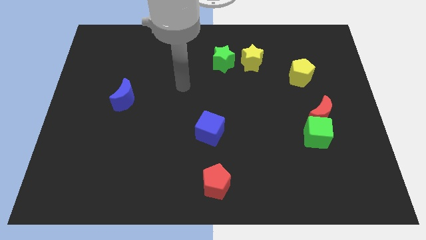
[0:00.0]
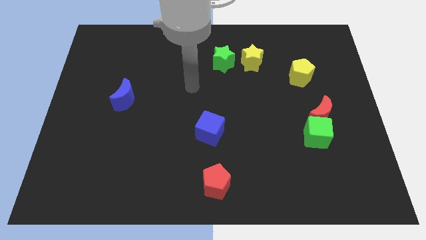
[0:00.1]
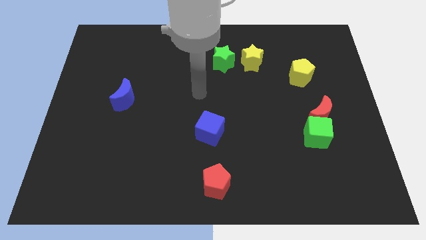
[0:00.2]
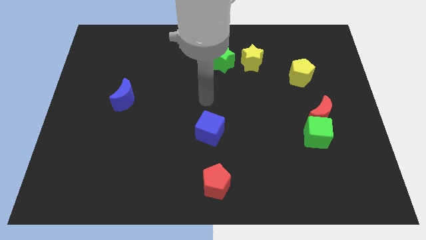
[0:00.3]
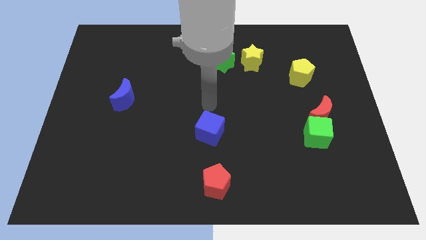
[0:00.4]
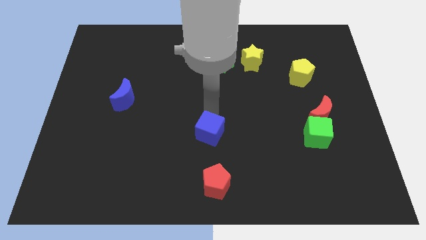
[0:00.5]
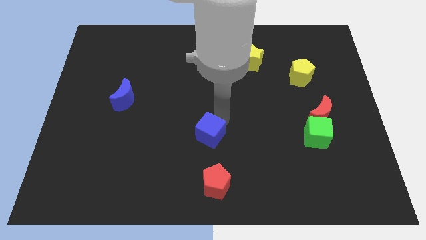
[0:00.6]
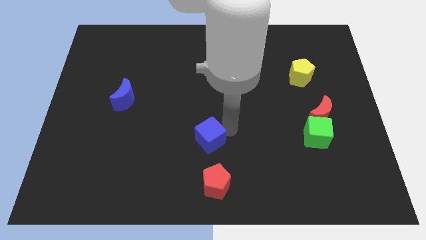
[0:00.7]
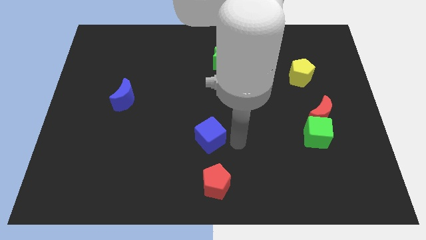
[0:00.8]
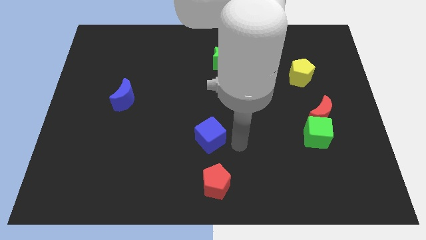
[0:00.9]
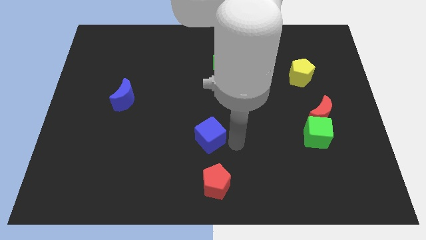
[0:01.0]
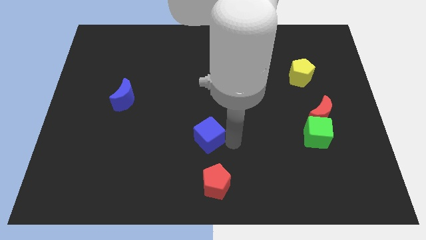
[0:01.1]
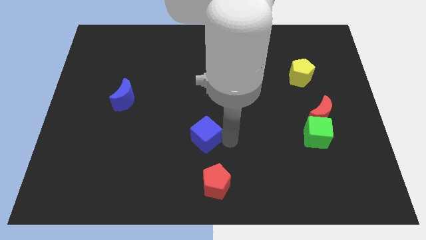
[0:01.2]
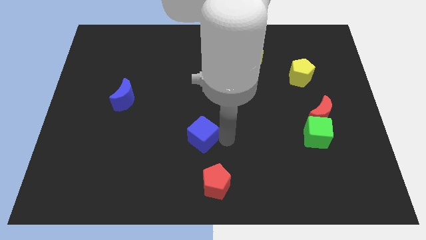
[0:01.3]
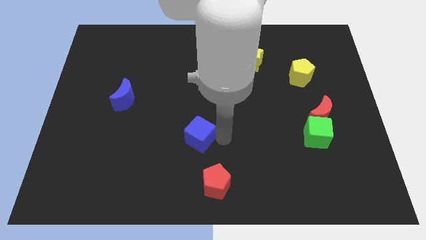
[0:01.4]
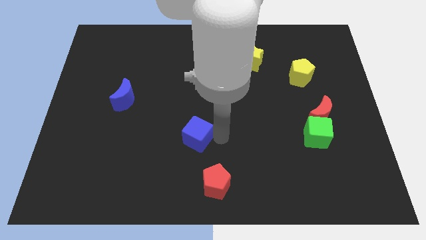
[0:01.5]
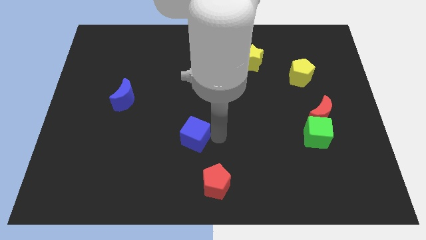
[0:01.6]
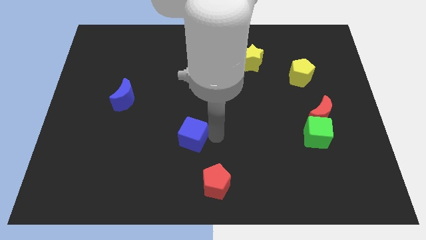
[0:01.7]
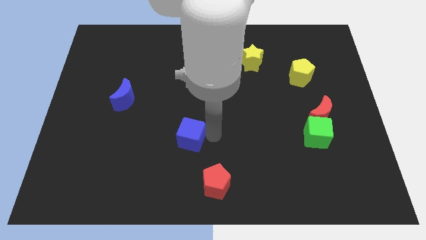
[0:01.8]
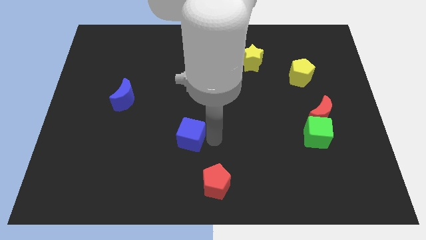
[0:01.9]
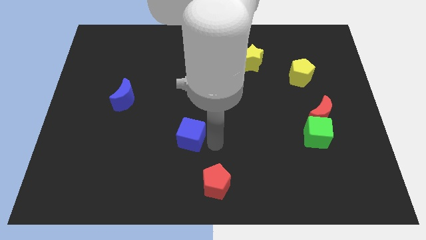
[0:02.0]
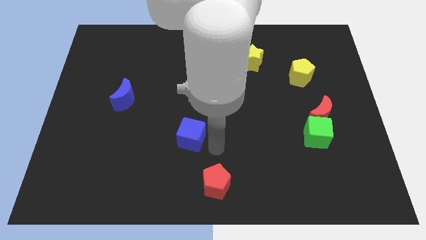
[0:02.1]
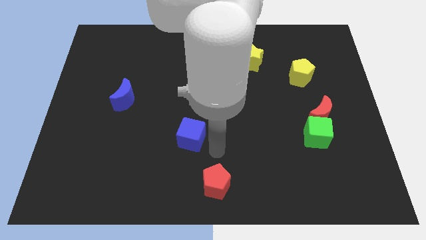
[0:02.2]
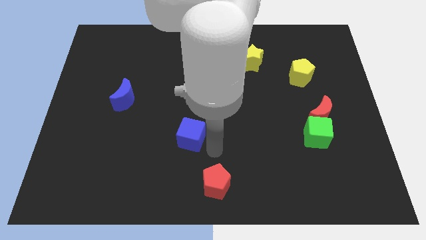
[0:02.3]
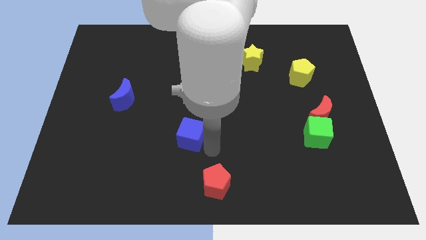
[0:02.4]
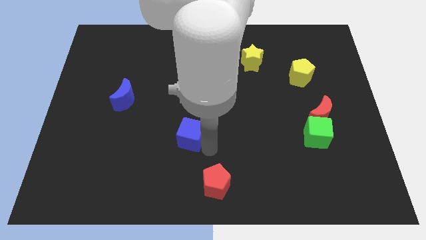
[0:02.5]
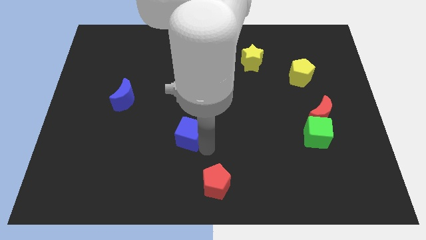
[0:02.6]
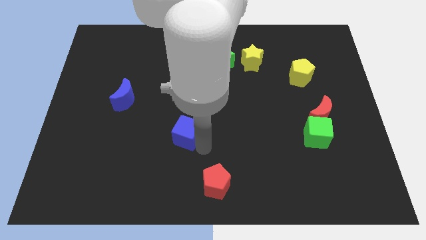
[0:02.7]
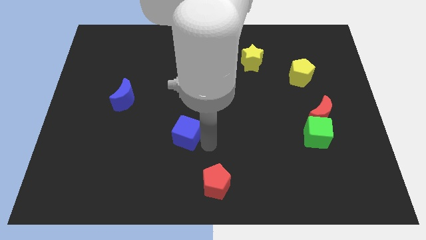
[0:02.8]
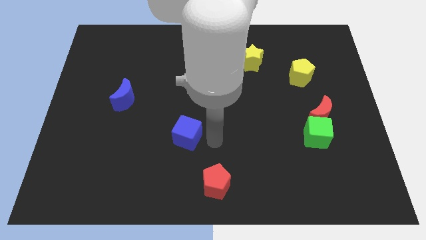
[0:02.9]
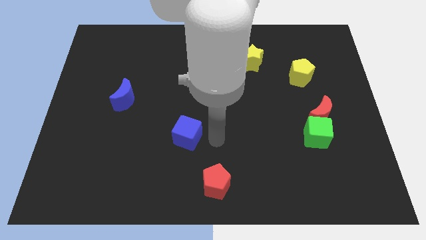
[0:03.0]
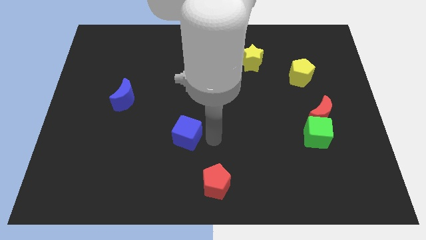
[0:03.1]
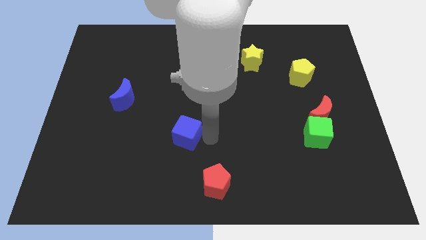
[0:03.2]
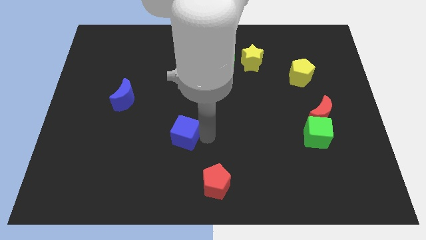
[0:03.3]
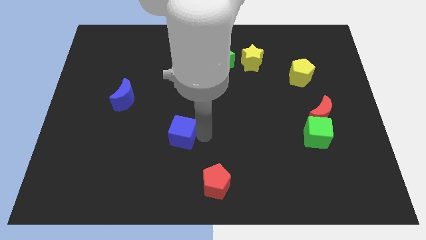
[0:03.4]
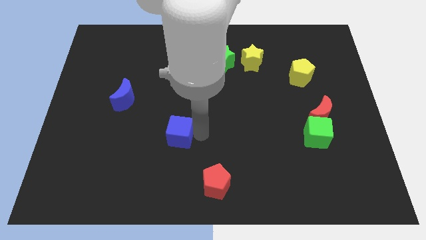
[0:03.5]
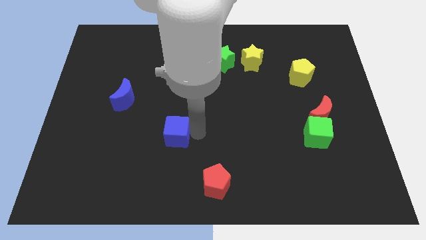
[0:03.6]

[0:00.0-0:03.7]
push the blue cube left somewhat

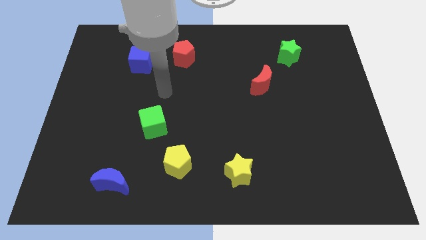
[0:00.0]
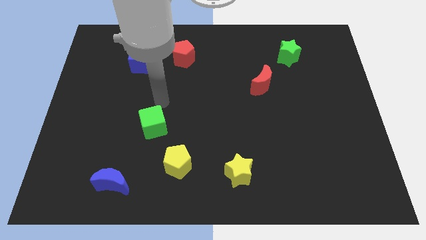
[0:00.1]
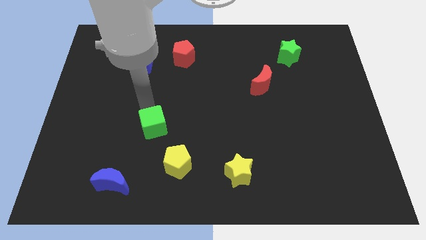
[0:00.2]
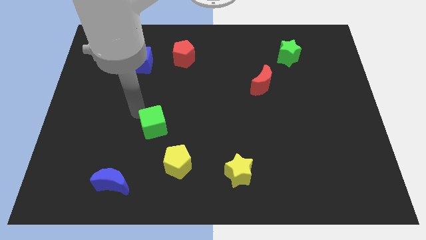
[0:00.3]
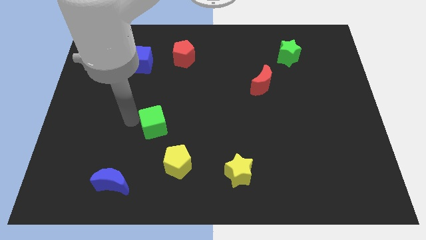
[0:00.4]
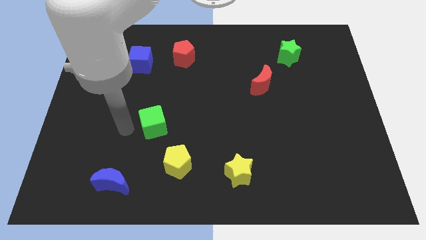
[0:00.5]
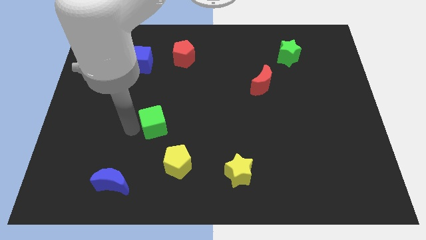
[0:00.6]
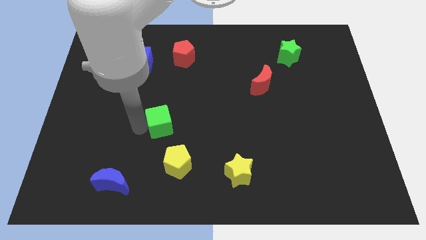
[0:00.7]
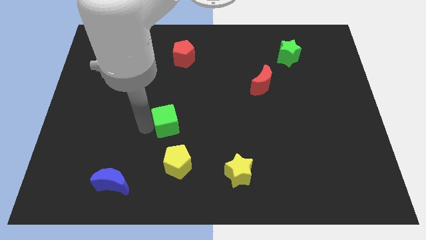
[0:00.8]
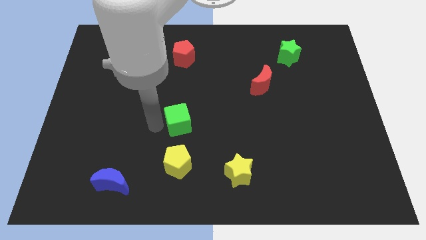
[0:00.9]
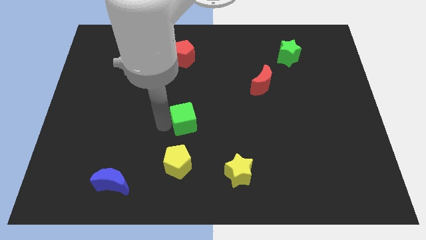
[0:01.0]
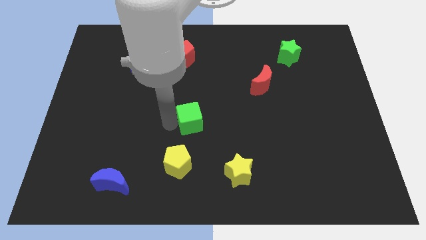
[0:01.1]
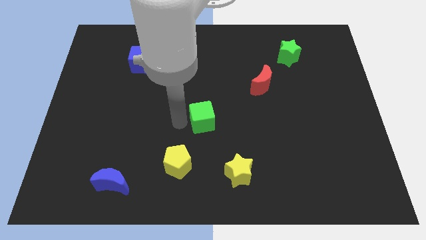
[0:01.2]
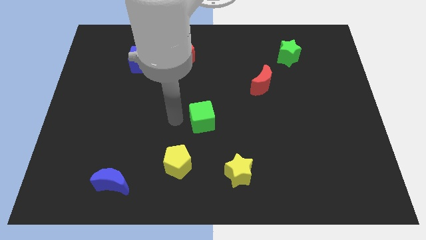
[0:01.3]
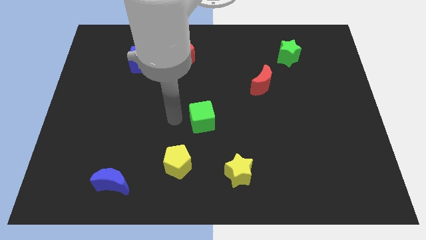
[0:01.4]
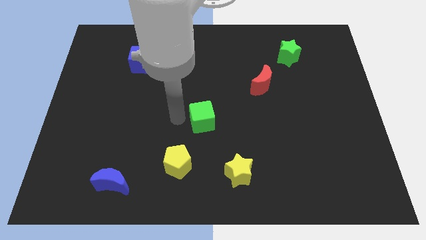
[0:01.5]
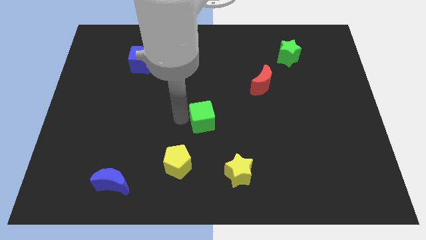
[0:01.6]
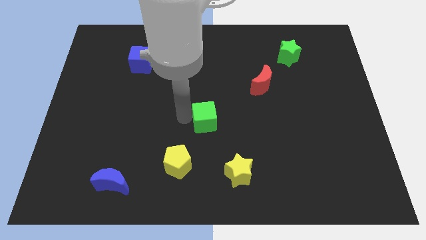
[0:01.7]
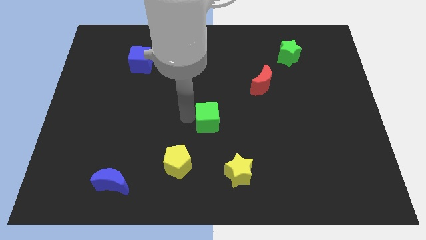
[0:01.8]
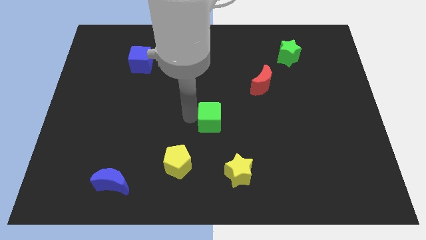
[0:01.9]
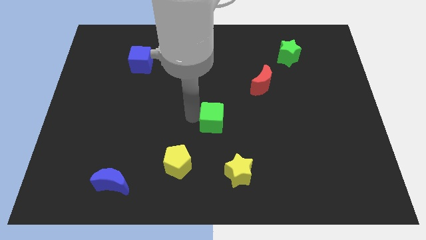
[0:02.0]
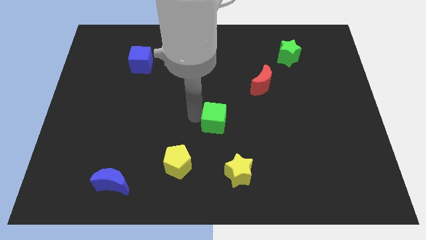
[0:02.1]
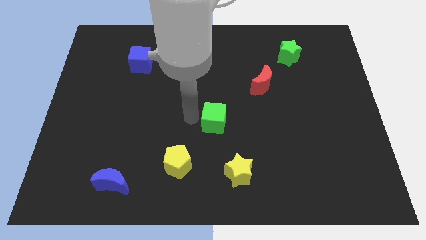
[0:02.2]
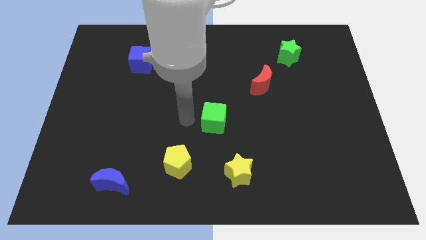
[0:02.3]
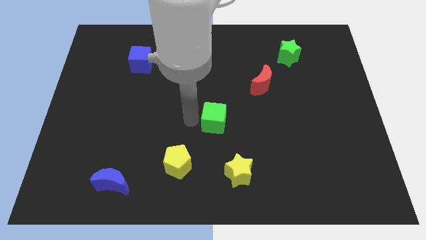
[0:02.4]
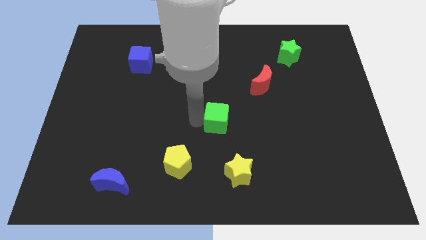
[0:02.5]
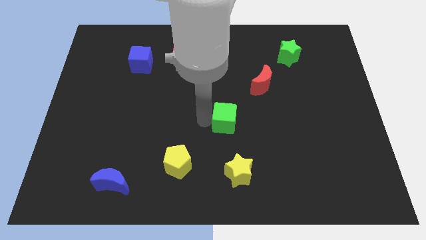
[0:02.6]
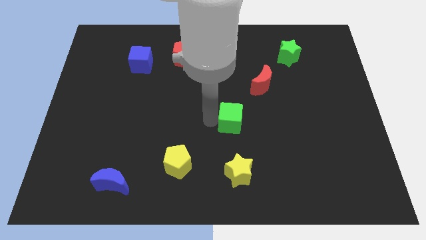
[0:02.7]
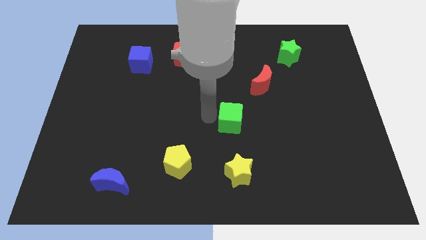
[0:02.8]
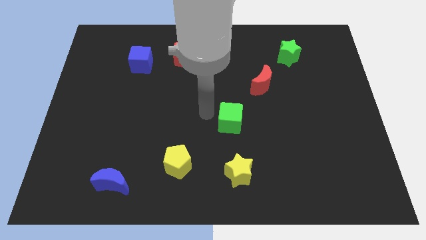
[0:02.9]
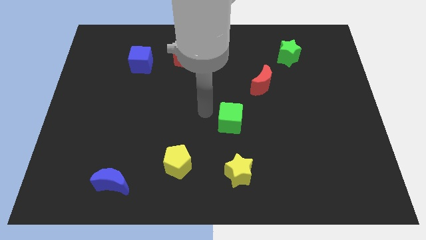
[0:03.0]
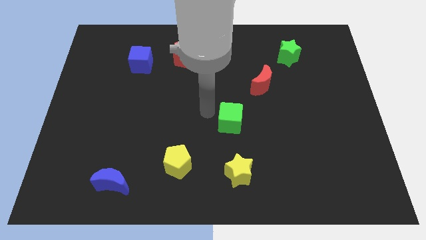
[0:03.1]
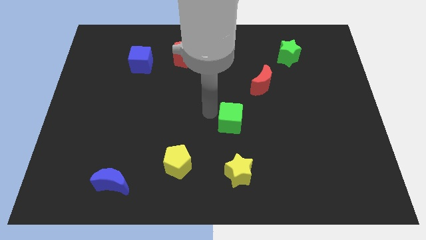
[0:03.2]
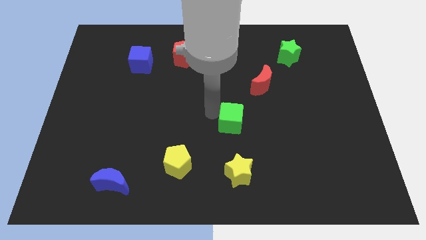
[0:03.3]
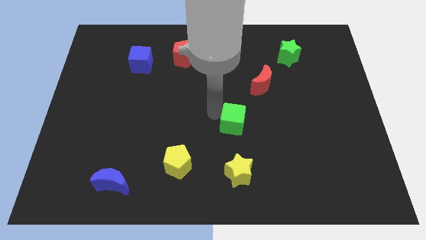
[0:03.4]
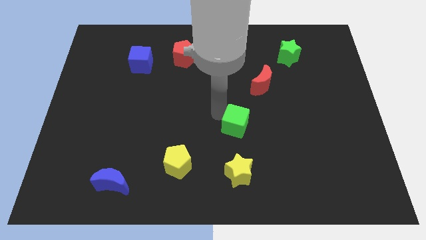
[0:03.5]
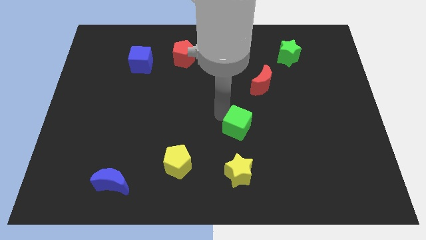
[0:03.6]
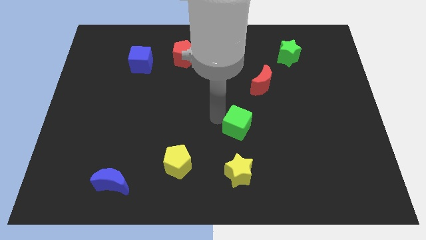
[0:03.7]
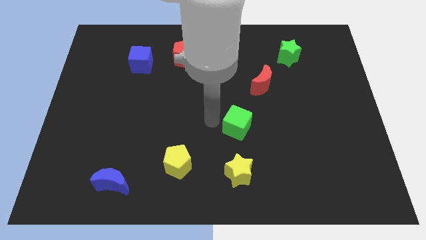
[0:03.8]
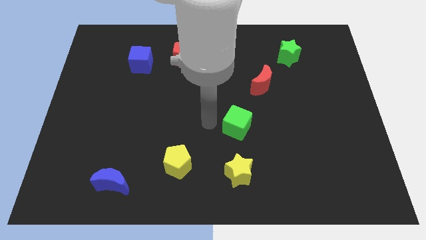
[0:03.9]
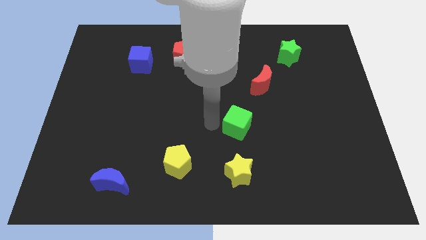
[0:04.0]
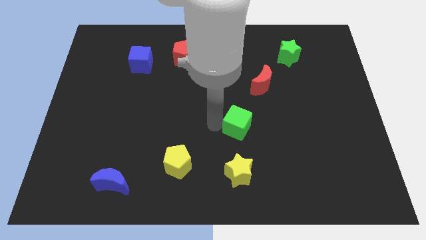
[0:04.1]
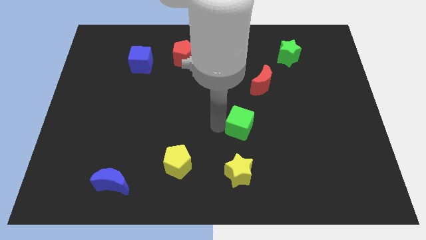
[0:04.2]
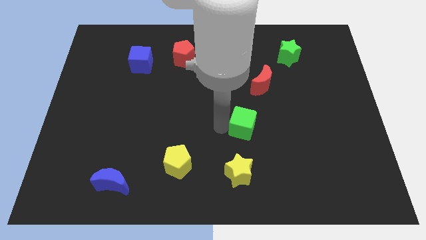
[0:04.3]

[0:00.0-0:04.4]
slide the green cube right
